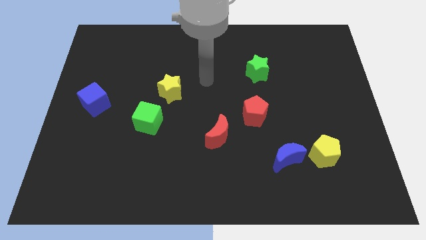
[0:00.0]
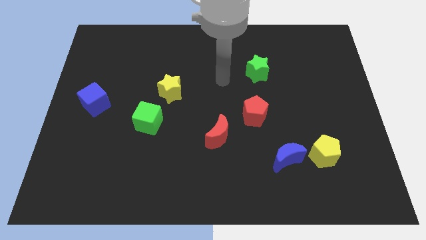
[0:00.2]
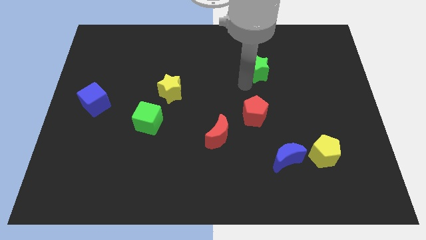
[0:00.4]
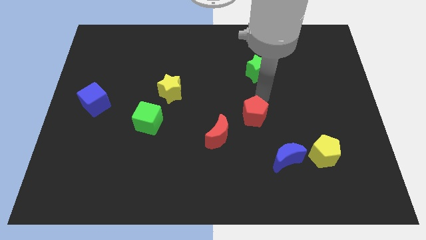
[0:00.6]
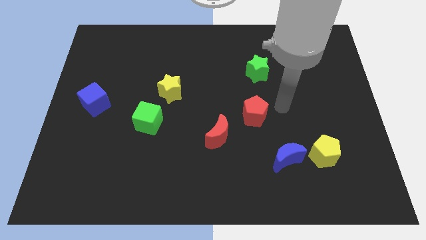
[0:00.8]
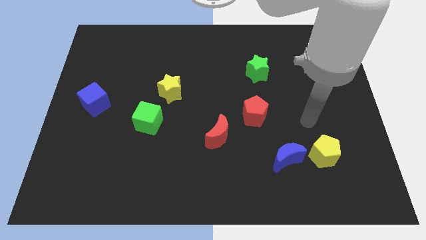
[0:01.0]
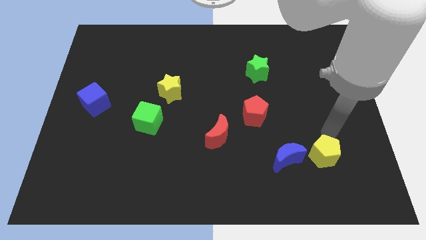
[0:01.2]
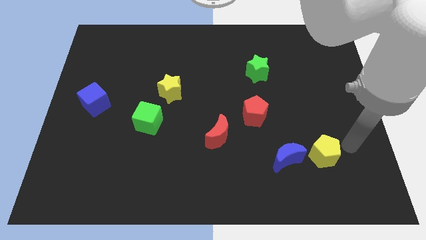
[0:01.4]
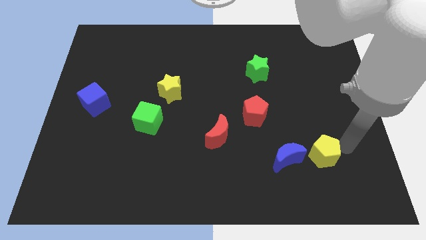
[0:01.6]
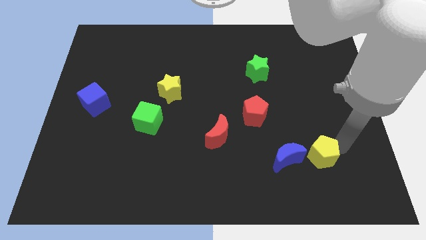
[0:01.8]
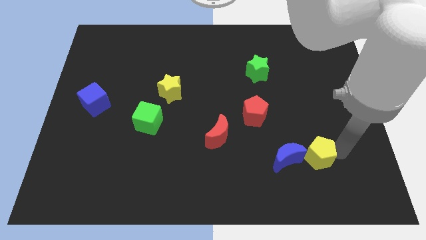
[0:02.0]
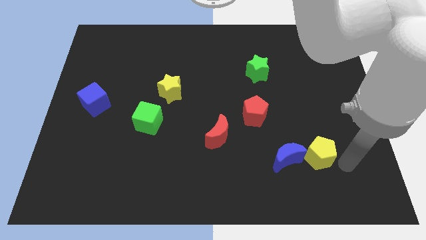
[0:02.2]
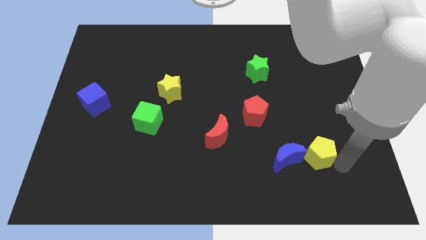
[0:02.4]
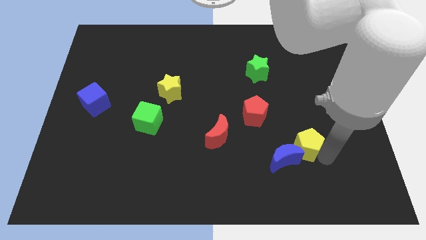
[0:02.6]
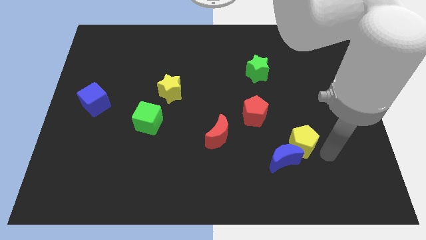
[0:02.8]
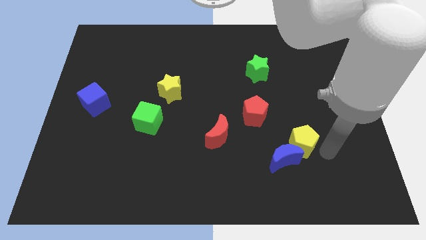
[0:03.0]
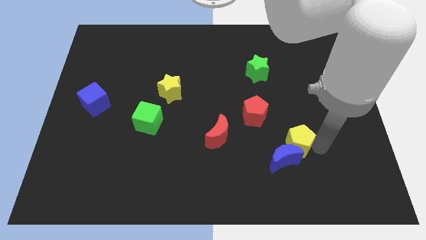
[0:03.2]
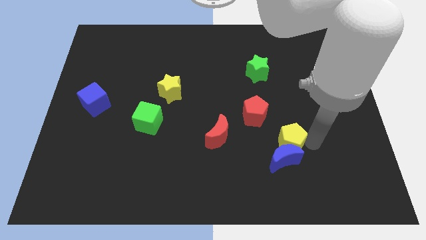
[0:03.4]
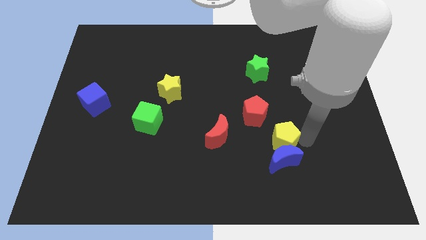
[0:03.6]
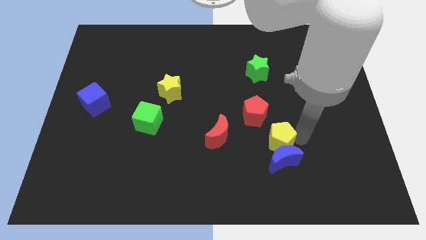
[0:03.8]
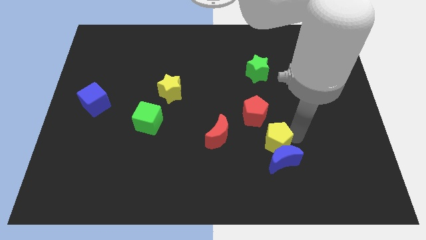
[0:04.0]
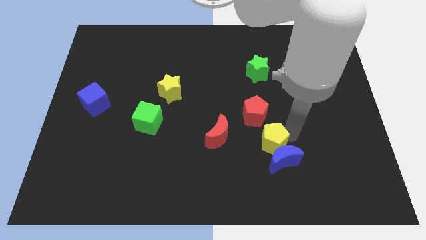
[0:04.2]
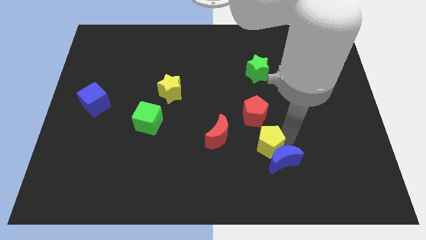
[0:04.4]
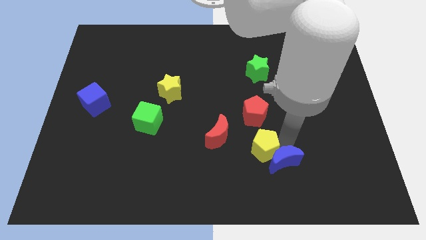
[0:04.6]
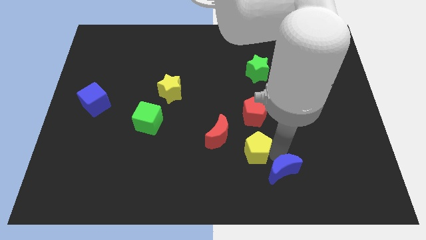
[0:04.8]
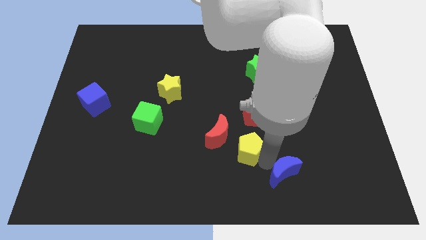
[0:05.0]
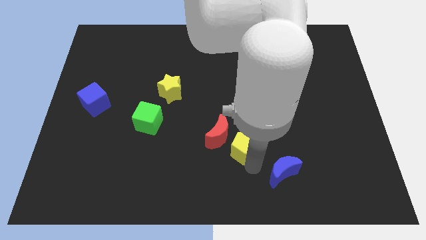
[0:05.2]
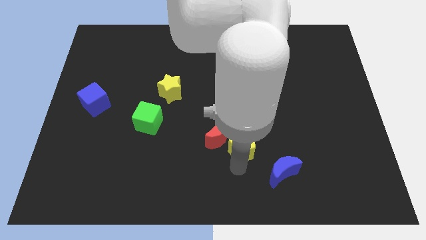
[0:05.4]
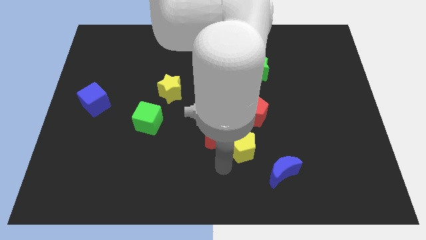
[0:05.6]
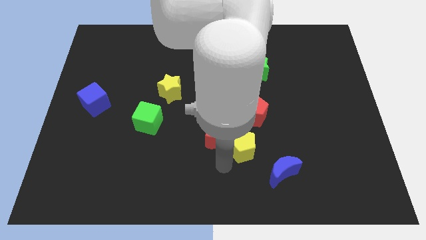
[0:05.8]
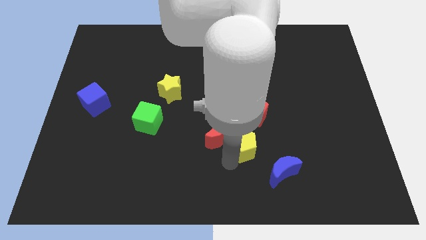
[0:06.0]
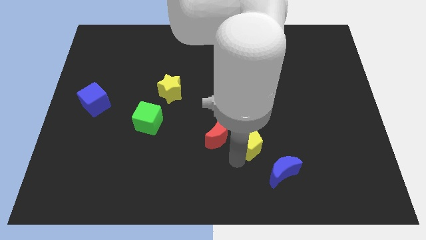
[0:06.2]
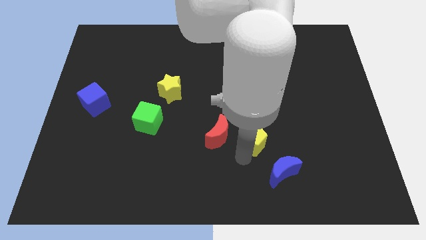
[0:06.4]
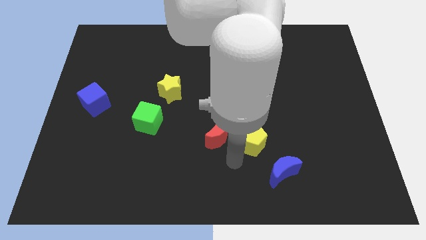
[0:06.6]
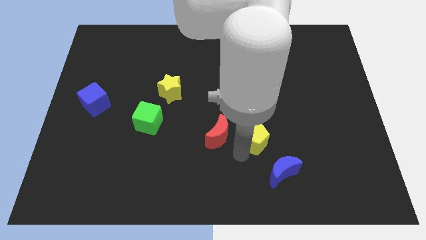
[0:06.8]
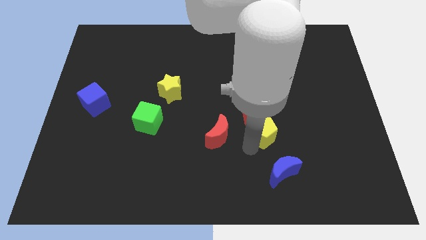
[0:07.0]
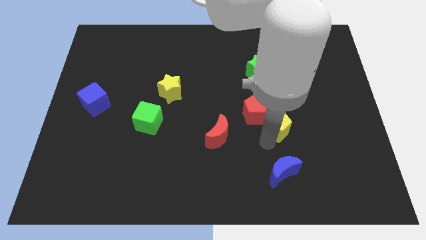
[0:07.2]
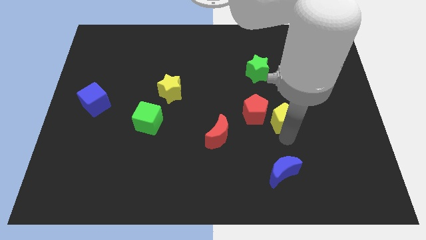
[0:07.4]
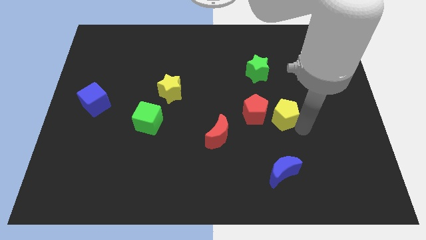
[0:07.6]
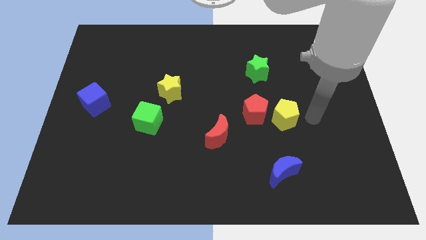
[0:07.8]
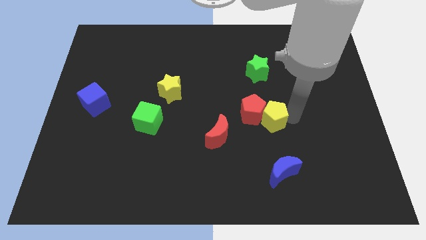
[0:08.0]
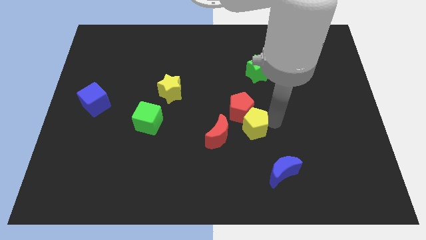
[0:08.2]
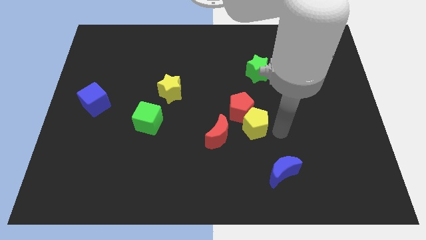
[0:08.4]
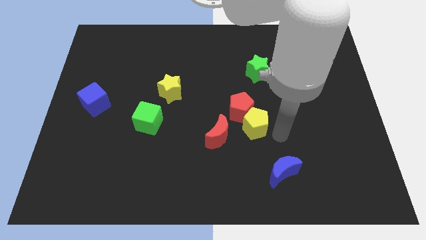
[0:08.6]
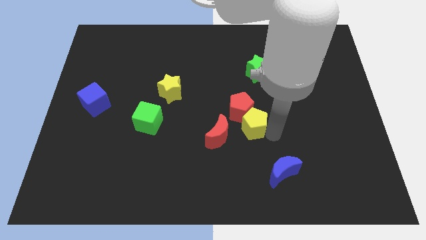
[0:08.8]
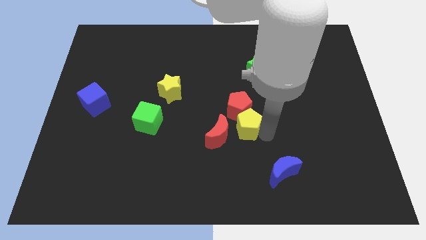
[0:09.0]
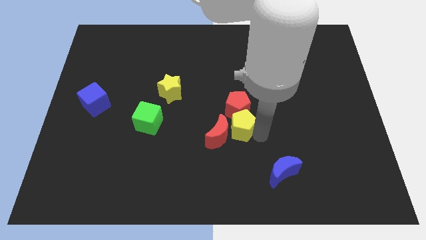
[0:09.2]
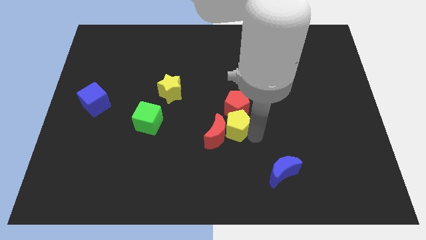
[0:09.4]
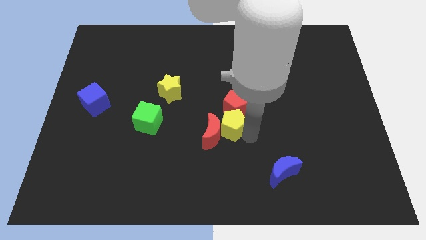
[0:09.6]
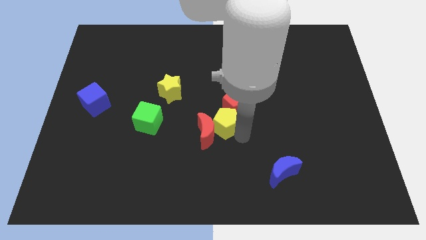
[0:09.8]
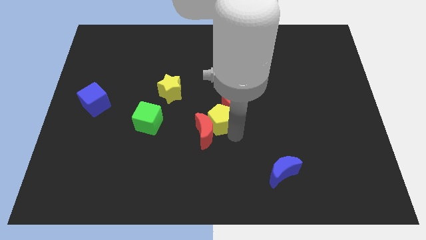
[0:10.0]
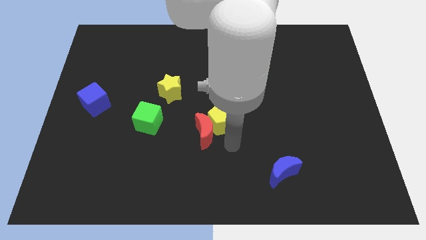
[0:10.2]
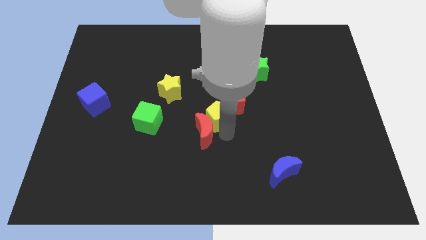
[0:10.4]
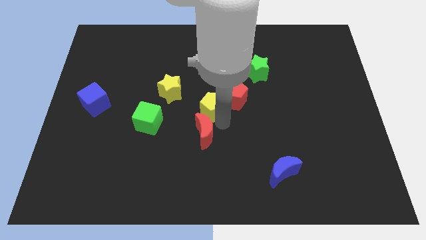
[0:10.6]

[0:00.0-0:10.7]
put the yellow pentagon to the bottom right of the yellow star
